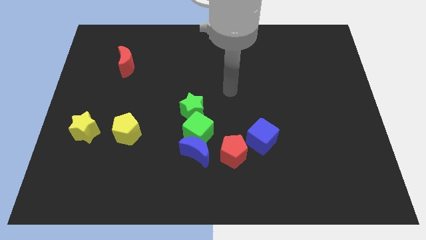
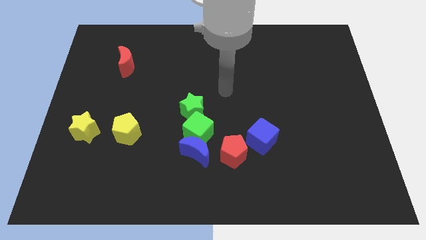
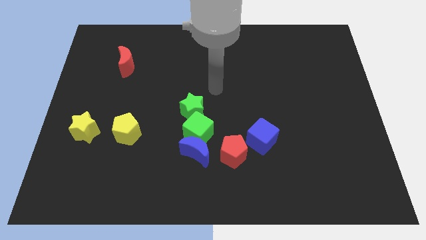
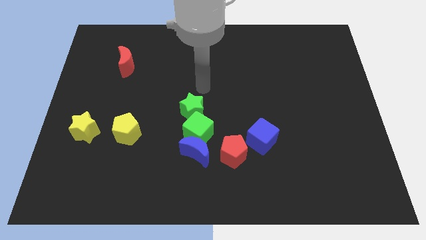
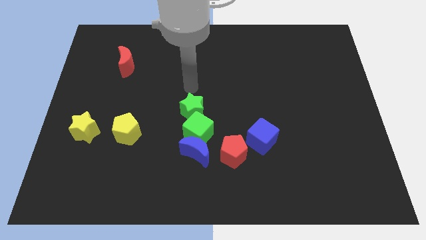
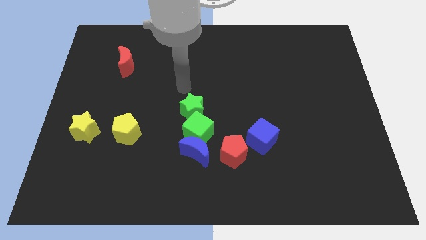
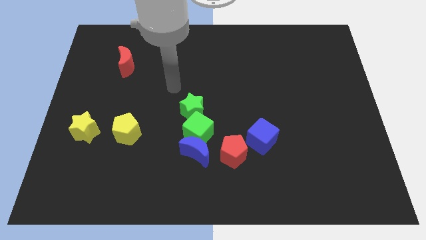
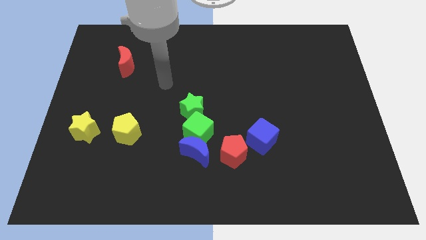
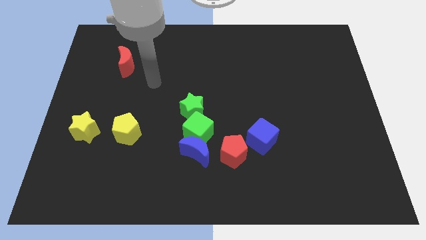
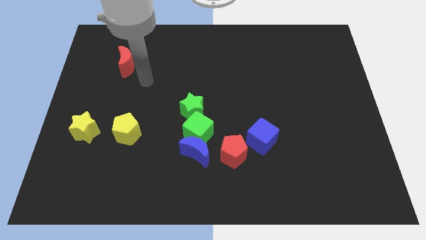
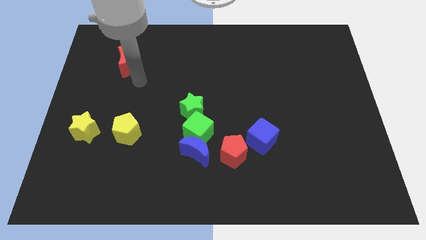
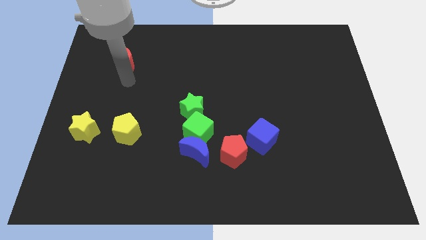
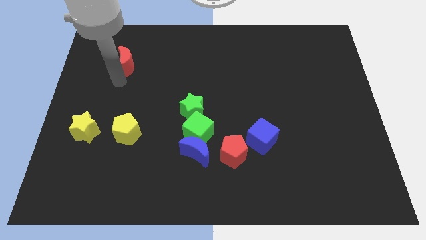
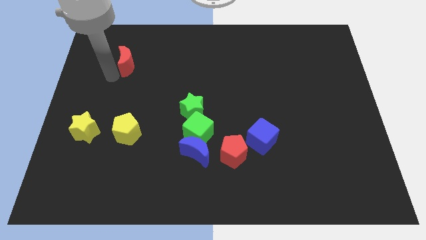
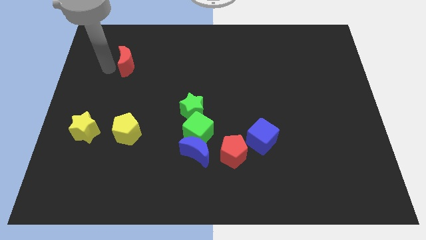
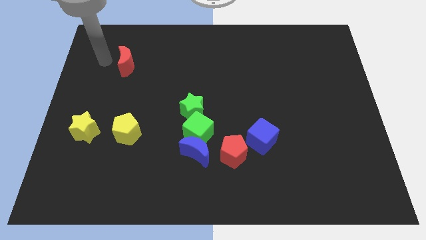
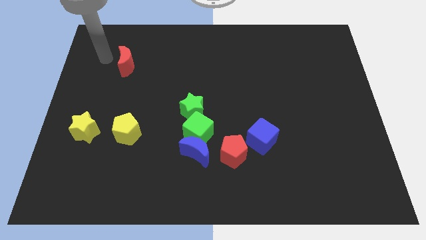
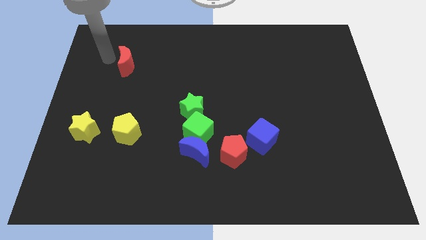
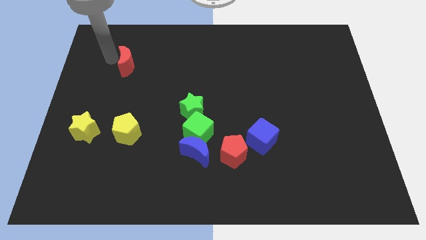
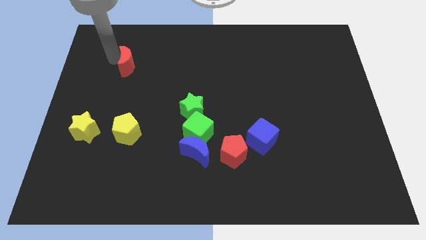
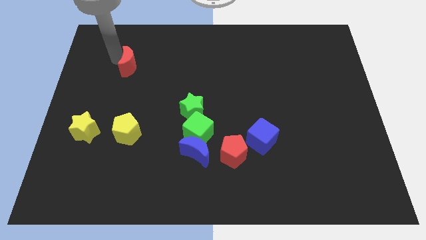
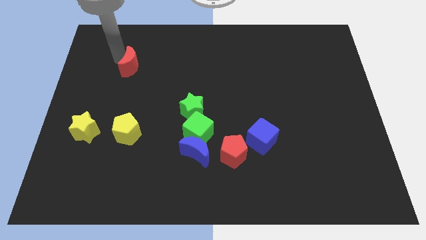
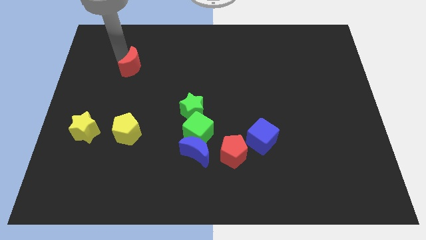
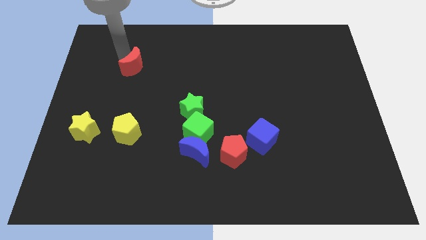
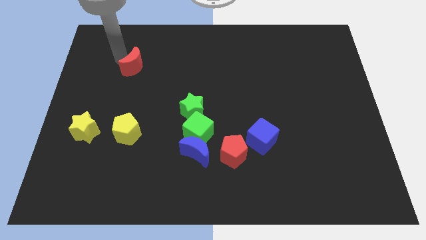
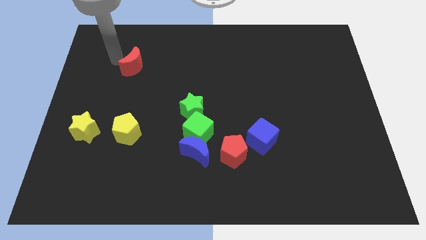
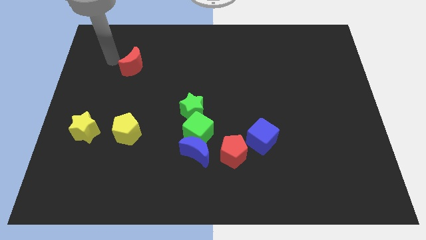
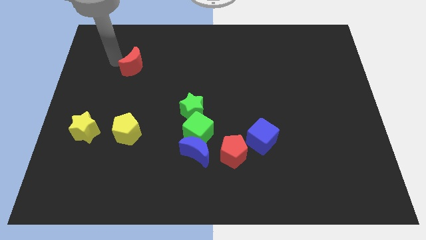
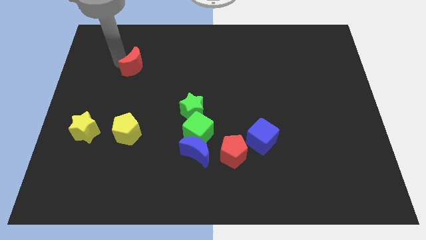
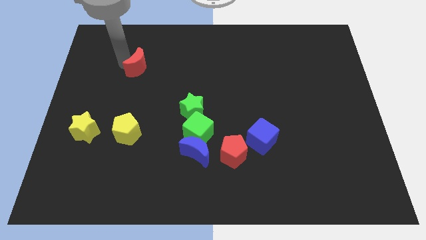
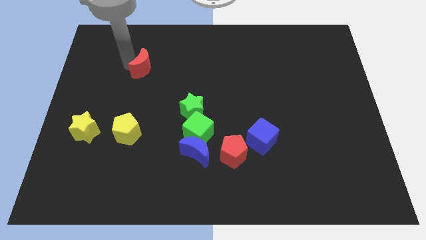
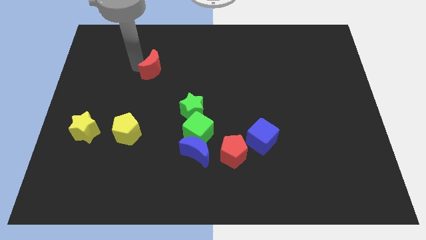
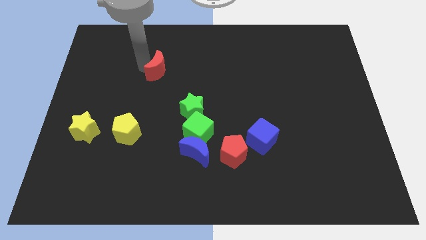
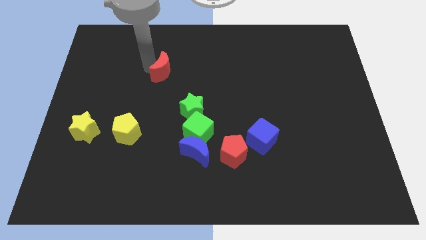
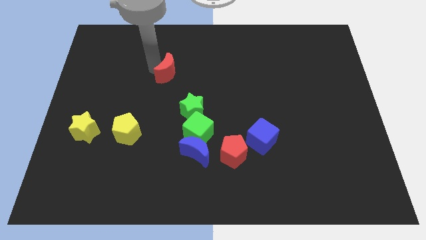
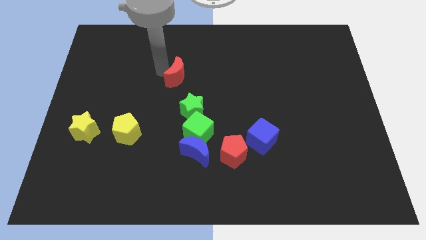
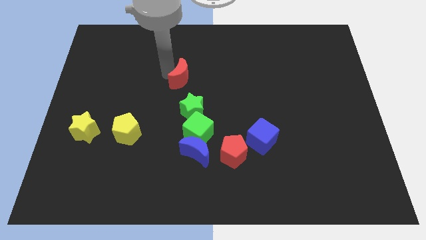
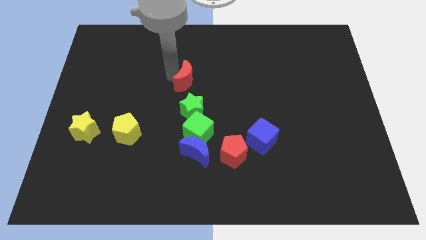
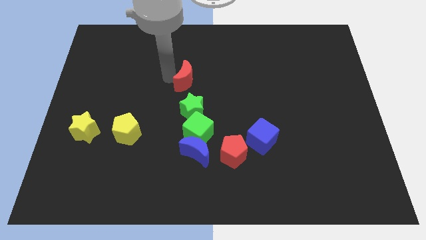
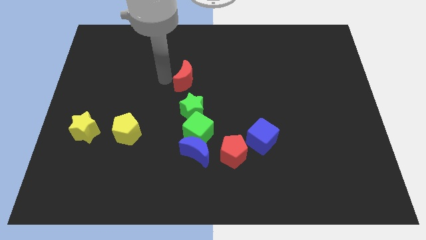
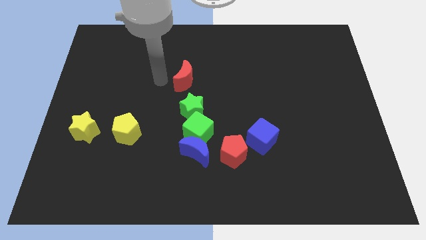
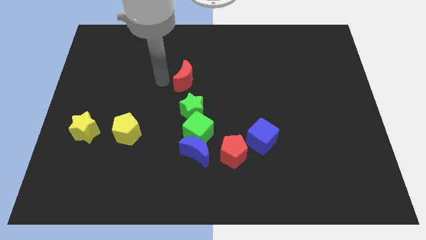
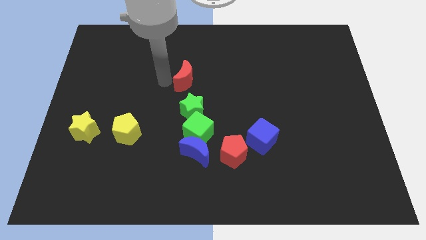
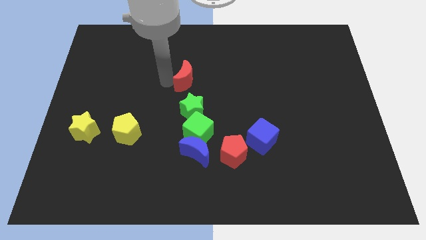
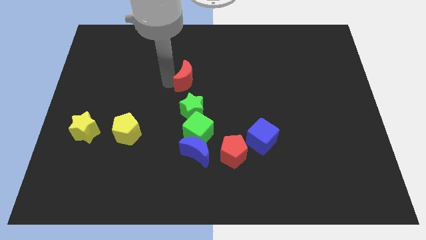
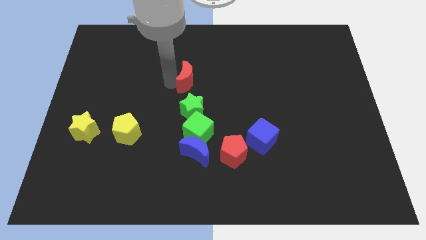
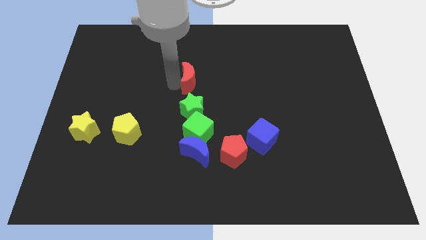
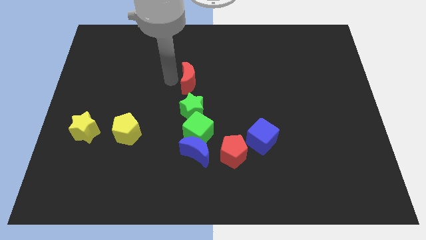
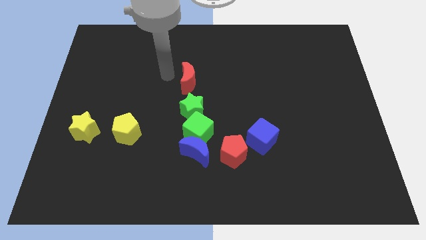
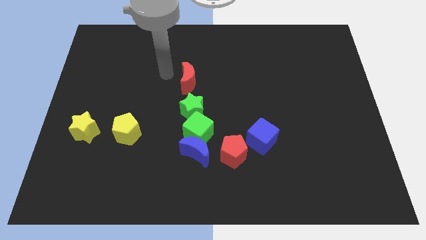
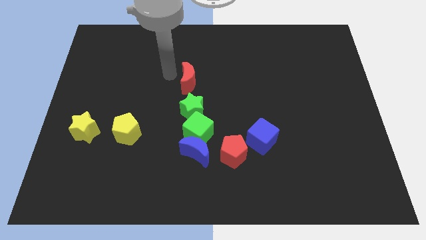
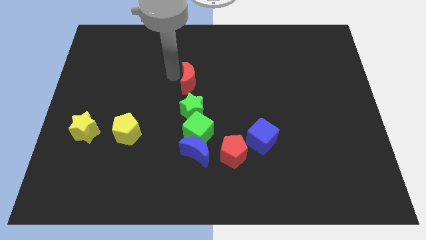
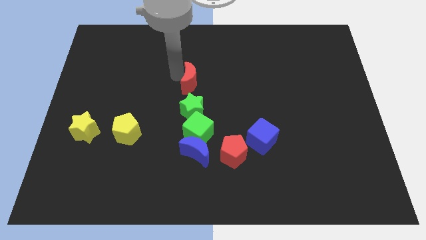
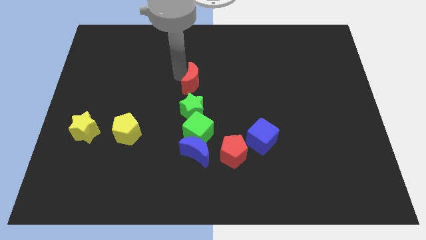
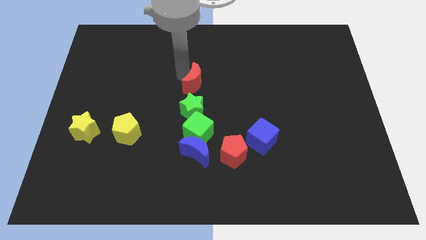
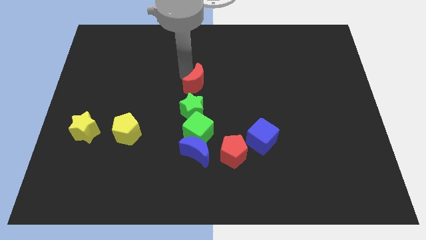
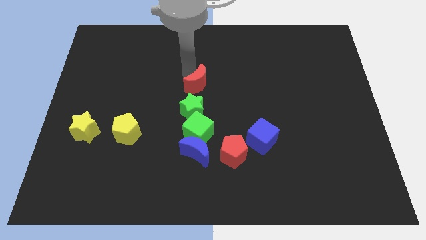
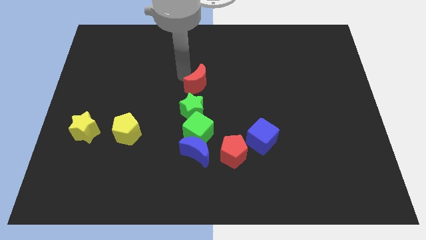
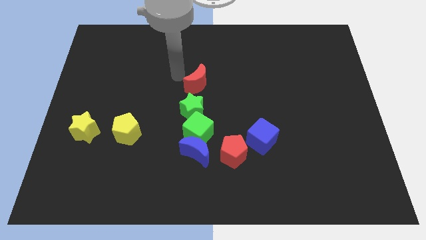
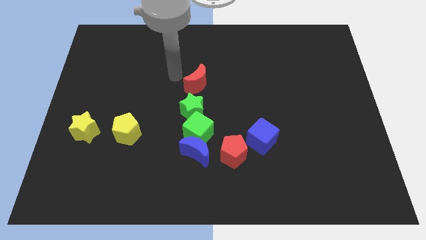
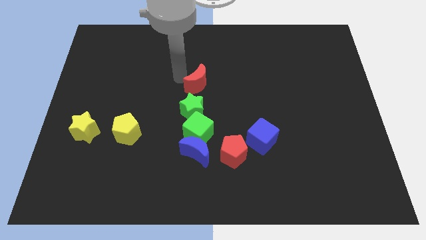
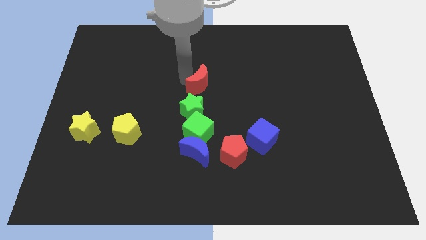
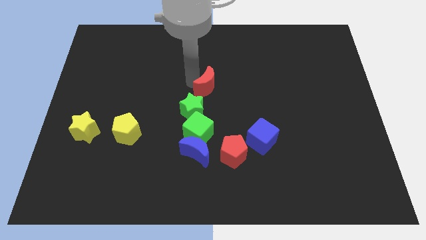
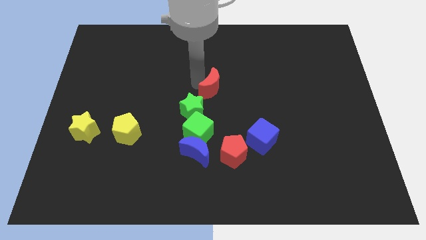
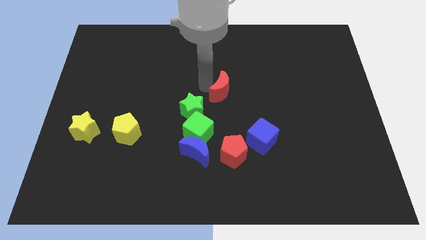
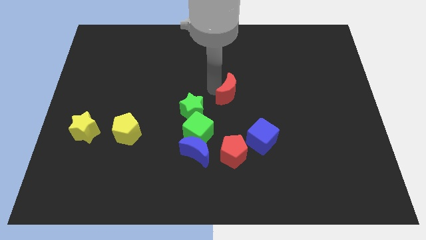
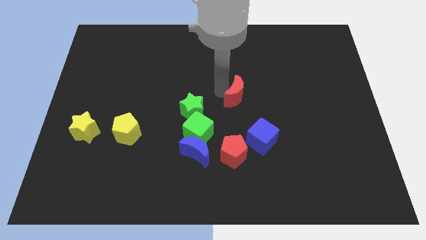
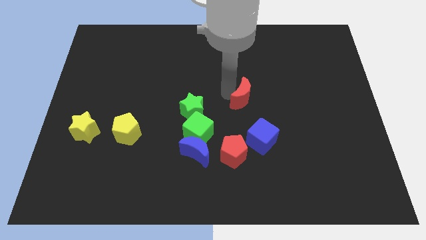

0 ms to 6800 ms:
push the red moon to the top of the blue cube
